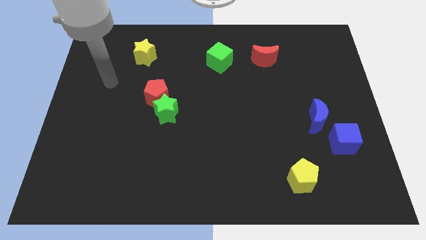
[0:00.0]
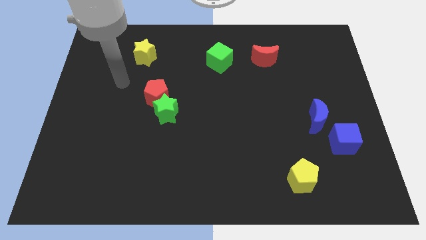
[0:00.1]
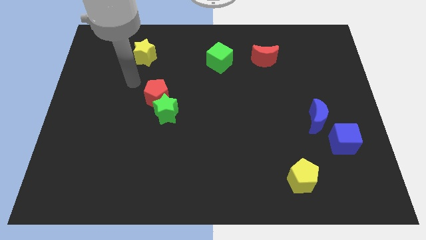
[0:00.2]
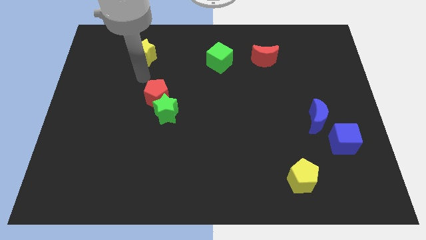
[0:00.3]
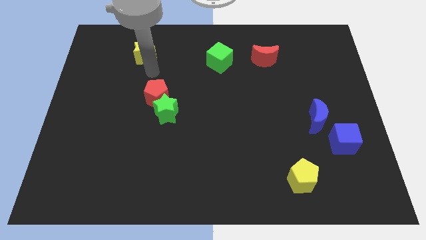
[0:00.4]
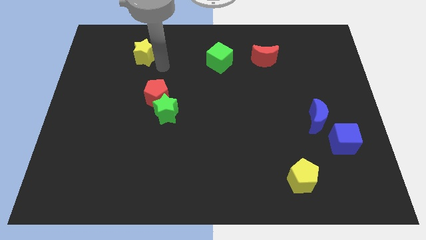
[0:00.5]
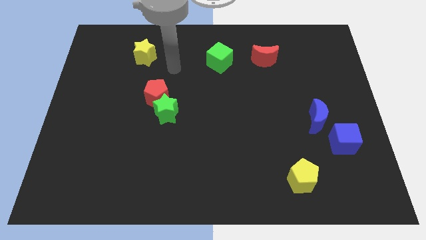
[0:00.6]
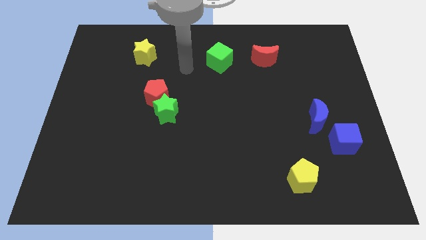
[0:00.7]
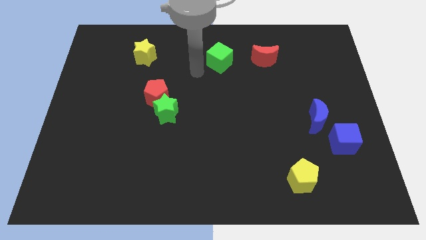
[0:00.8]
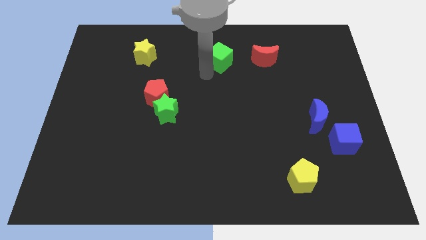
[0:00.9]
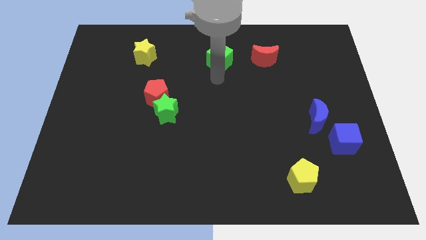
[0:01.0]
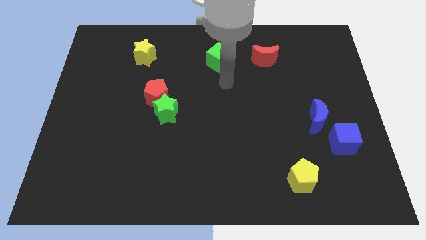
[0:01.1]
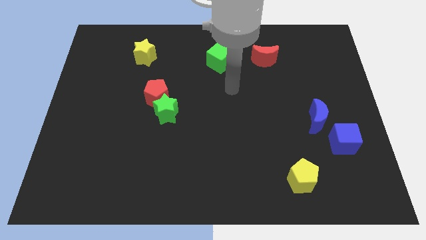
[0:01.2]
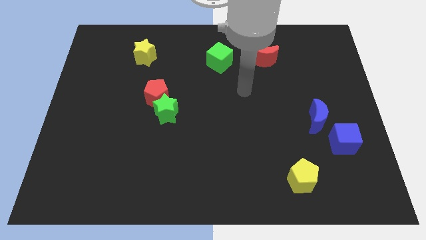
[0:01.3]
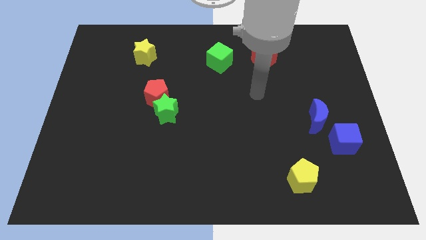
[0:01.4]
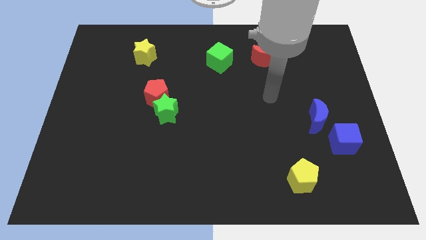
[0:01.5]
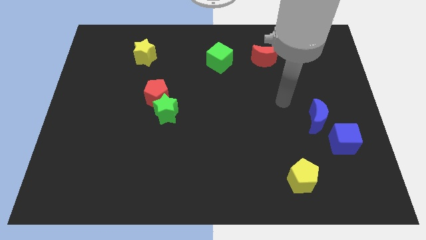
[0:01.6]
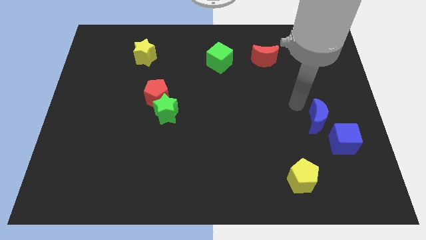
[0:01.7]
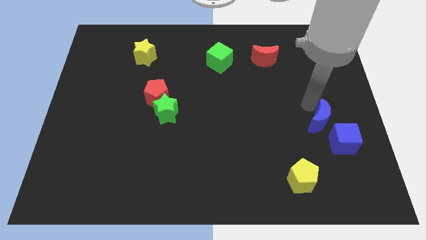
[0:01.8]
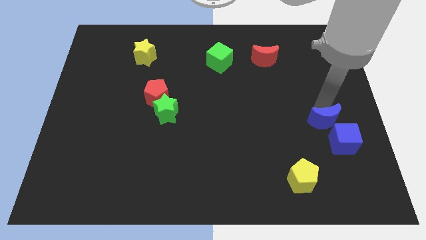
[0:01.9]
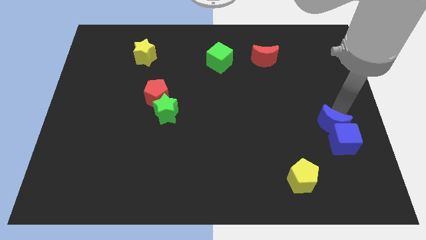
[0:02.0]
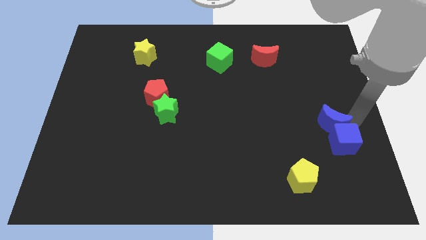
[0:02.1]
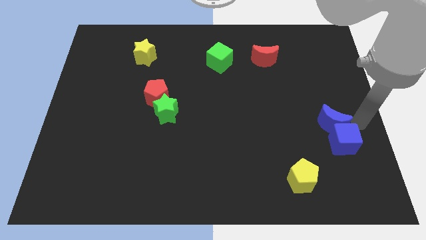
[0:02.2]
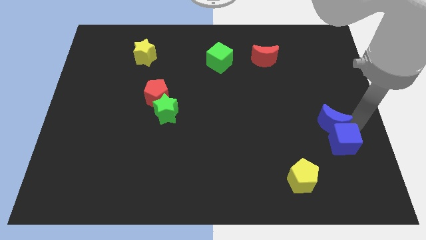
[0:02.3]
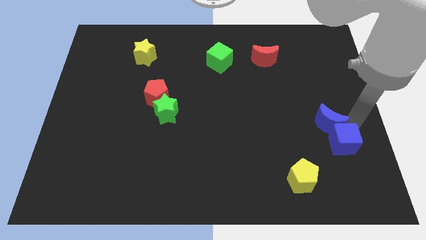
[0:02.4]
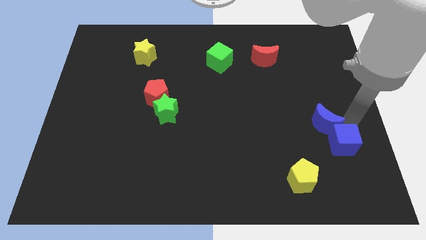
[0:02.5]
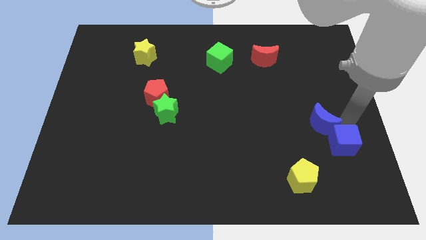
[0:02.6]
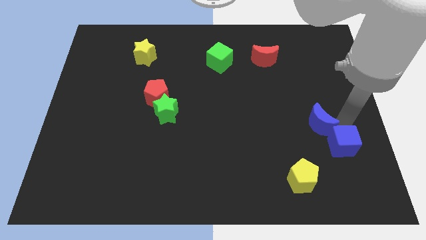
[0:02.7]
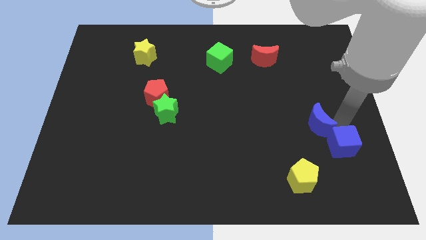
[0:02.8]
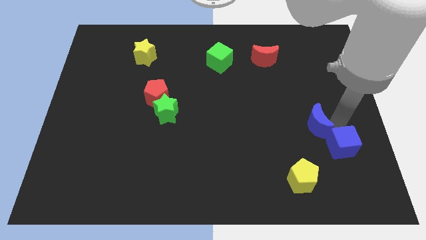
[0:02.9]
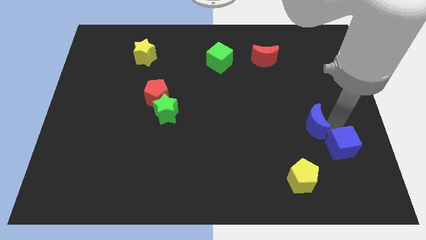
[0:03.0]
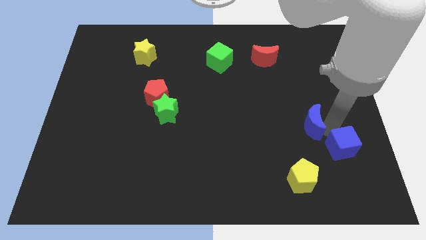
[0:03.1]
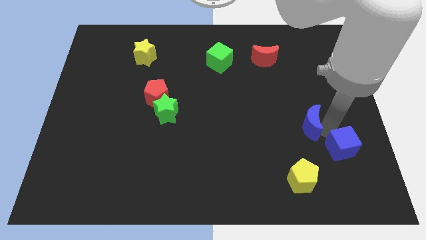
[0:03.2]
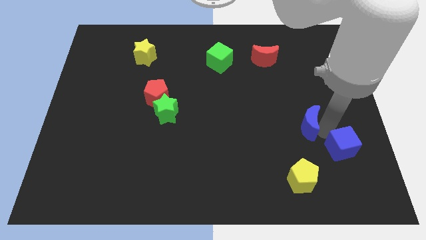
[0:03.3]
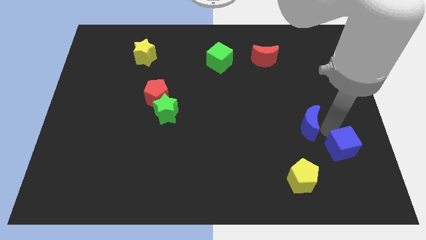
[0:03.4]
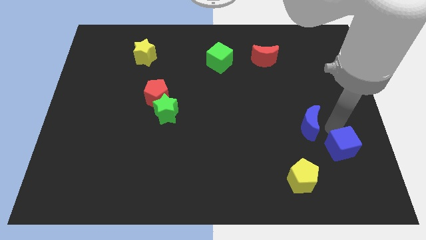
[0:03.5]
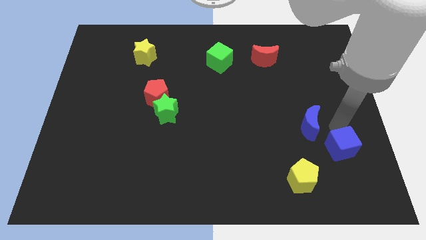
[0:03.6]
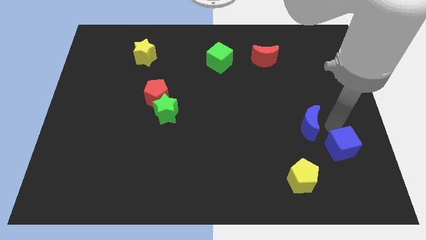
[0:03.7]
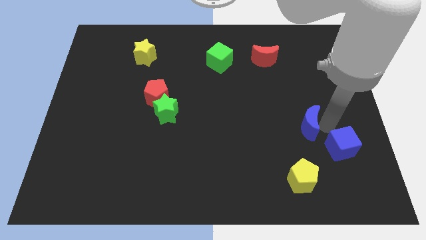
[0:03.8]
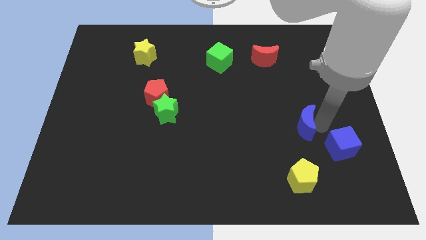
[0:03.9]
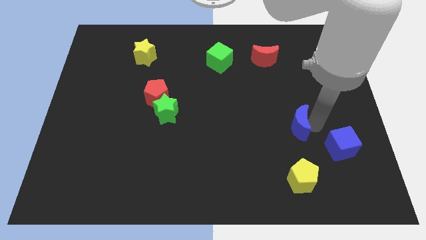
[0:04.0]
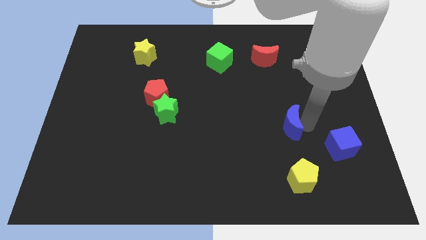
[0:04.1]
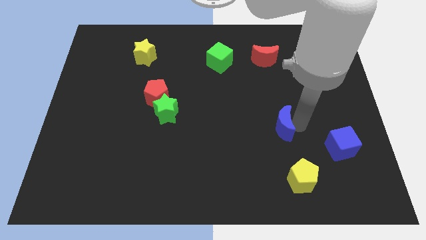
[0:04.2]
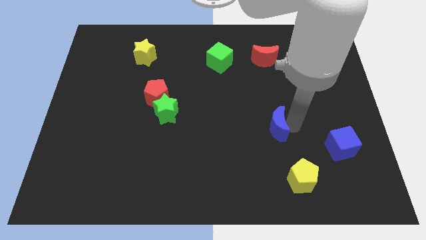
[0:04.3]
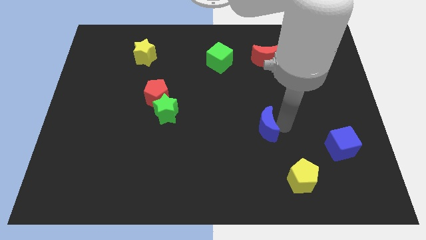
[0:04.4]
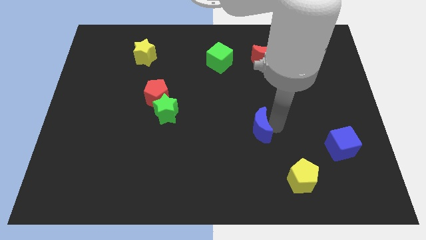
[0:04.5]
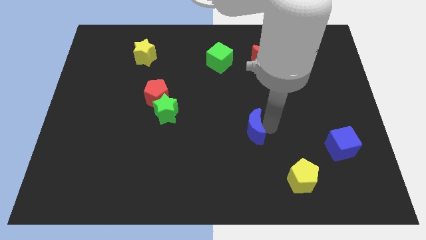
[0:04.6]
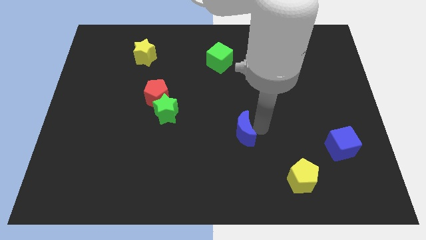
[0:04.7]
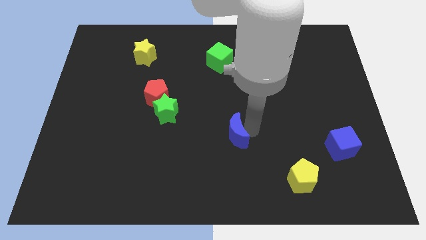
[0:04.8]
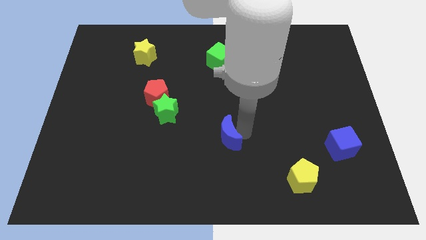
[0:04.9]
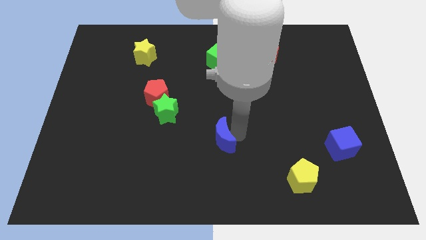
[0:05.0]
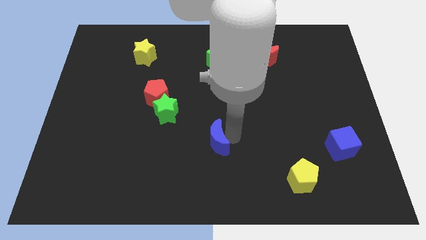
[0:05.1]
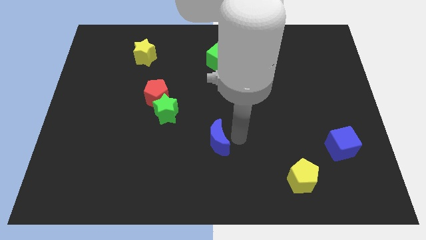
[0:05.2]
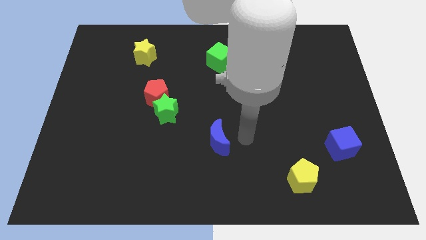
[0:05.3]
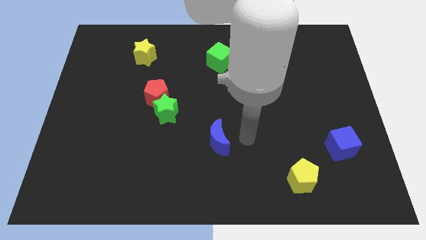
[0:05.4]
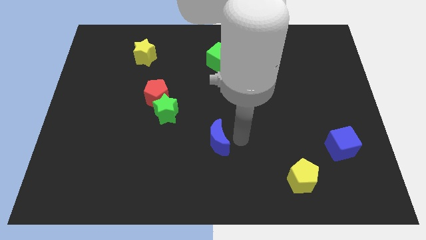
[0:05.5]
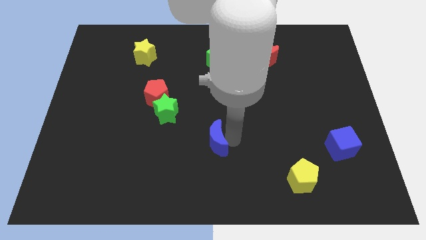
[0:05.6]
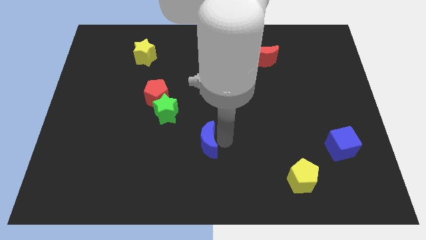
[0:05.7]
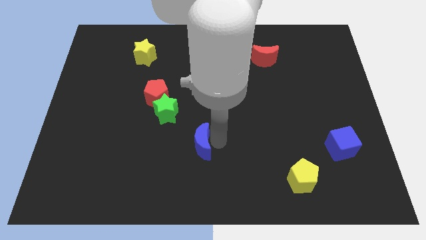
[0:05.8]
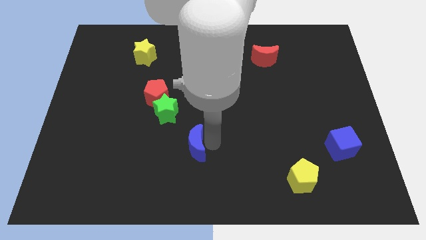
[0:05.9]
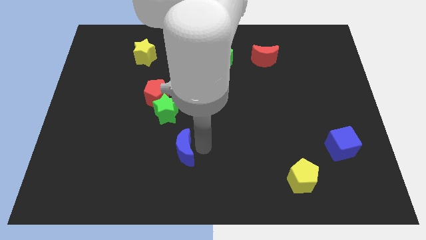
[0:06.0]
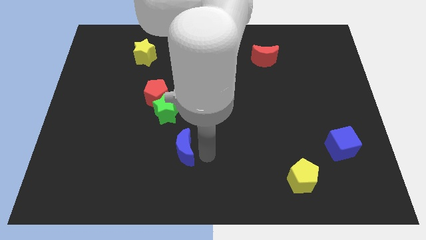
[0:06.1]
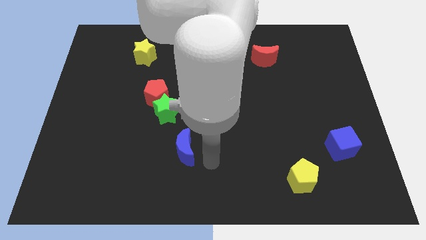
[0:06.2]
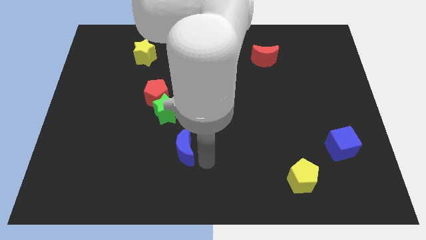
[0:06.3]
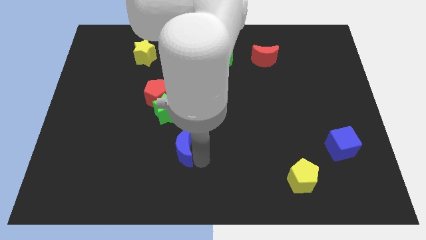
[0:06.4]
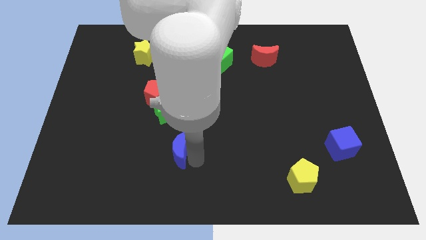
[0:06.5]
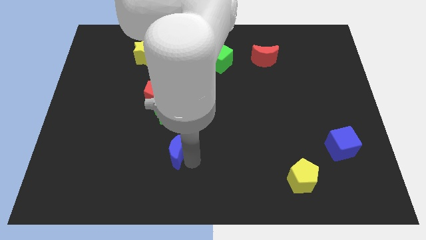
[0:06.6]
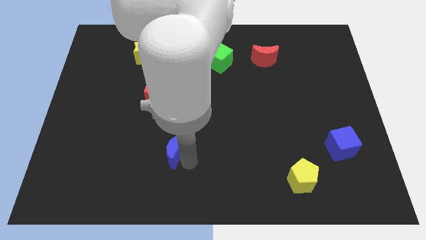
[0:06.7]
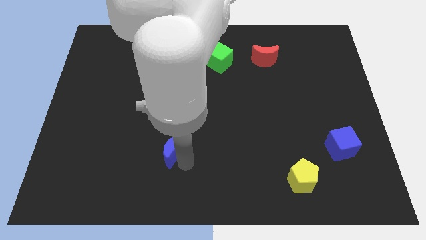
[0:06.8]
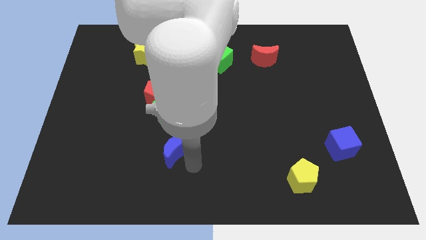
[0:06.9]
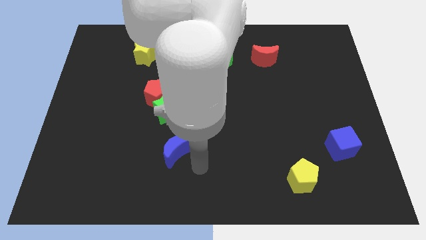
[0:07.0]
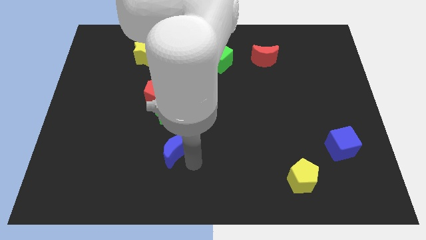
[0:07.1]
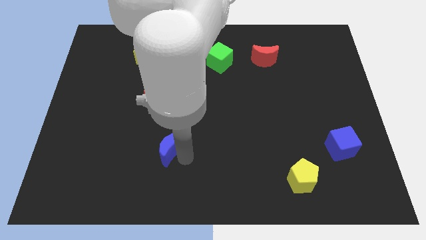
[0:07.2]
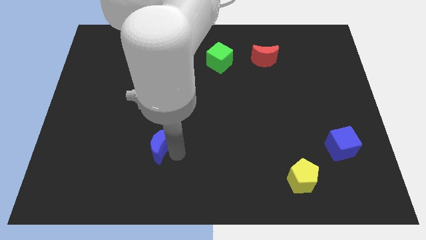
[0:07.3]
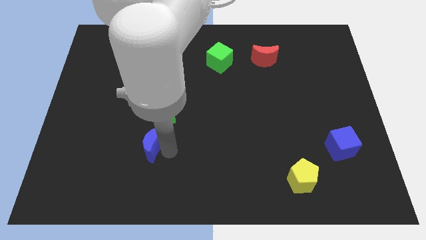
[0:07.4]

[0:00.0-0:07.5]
slide the blue moon diagonally down and to the left of the green star

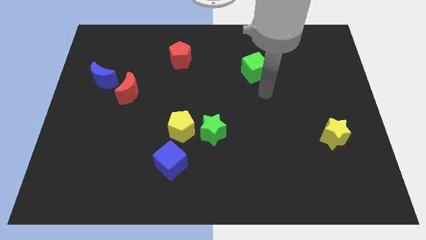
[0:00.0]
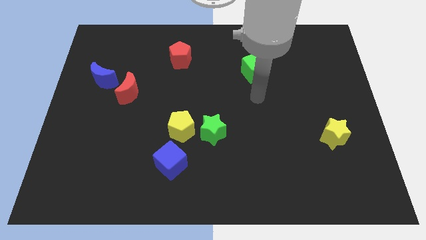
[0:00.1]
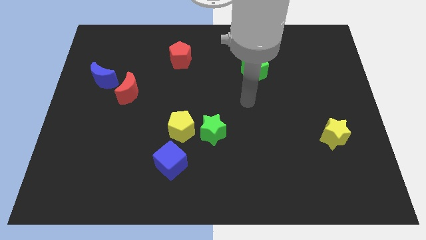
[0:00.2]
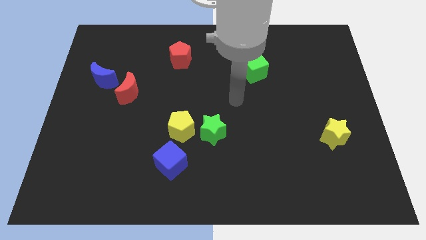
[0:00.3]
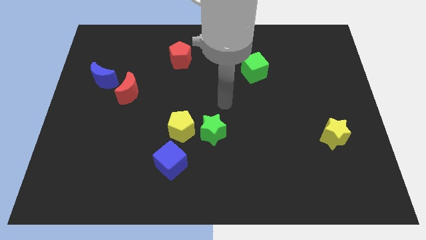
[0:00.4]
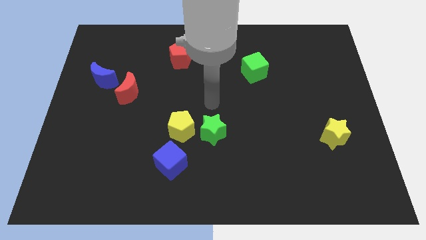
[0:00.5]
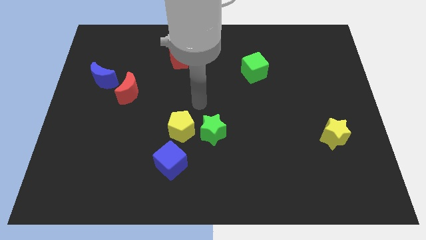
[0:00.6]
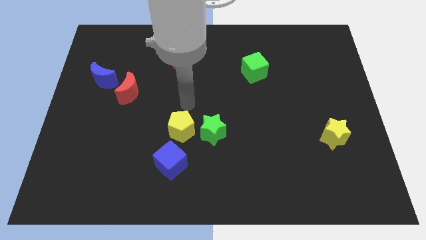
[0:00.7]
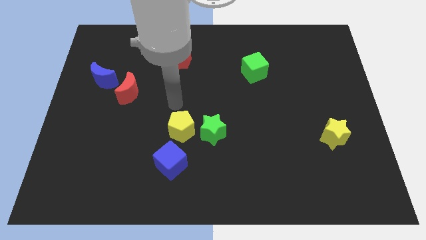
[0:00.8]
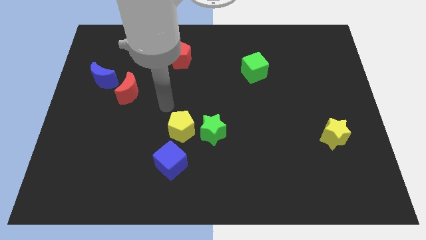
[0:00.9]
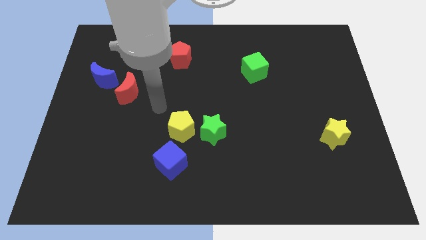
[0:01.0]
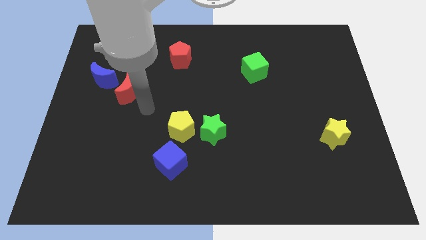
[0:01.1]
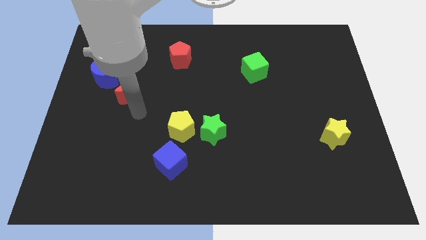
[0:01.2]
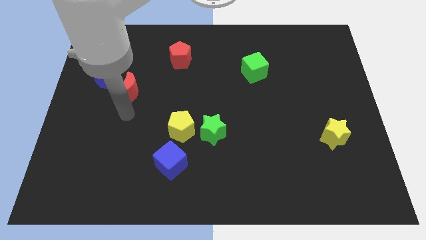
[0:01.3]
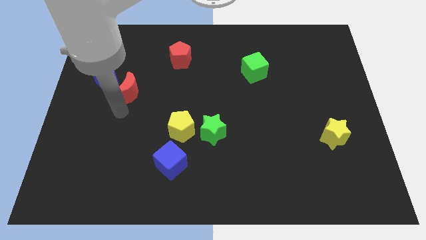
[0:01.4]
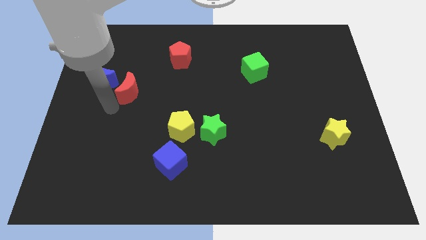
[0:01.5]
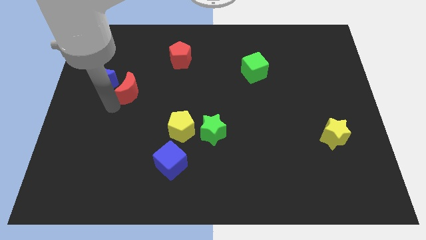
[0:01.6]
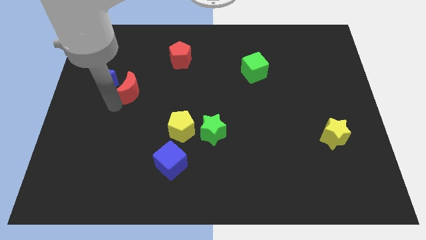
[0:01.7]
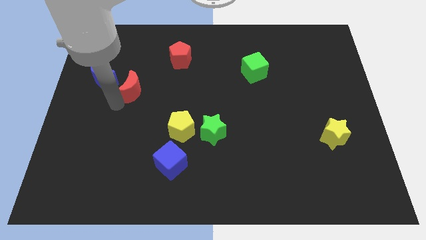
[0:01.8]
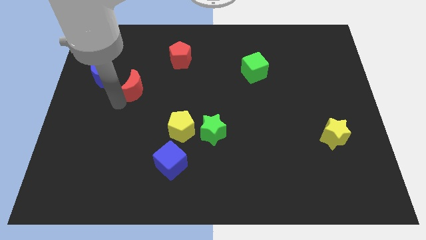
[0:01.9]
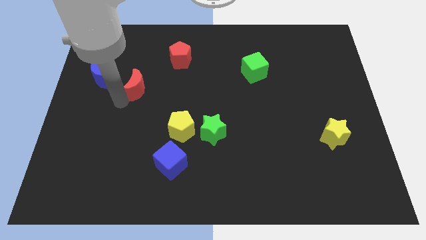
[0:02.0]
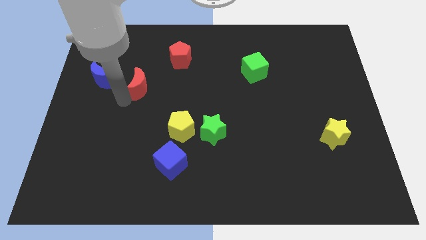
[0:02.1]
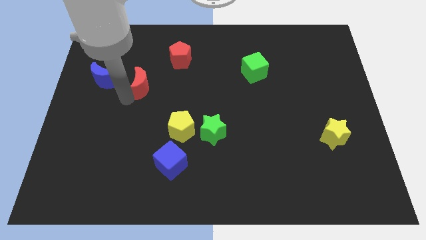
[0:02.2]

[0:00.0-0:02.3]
push the red moon diagonally down and to the left of the red pentagon
